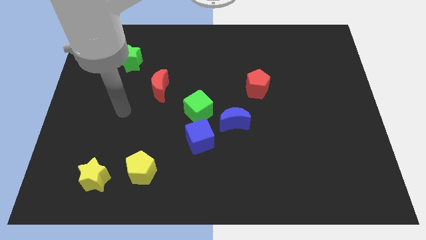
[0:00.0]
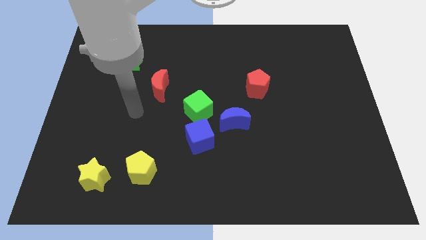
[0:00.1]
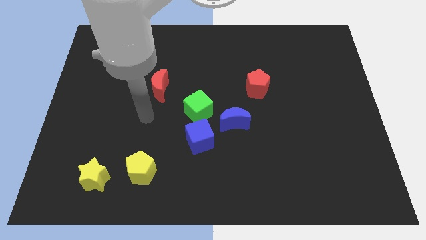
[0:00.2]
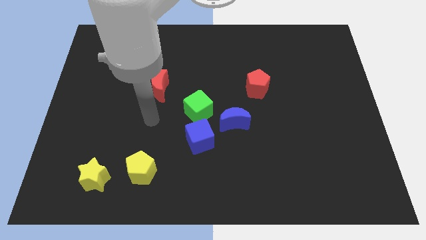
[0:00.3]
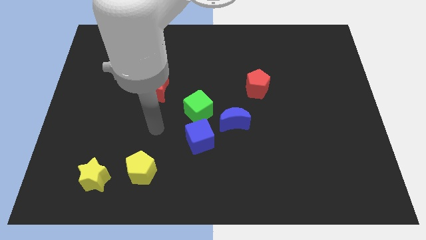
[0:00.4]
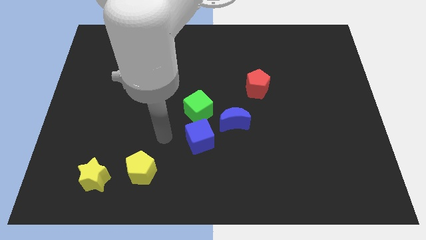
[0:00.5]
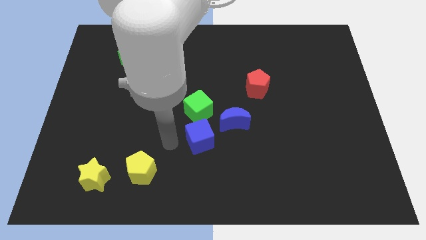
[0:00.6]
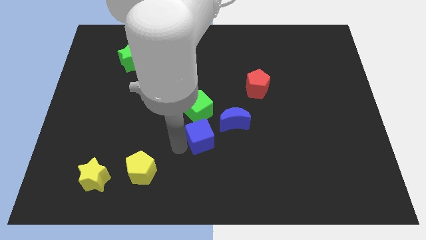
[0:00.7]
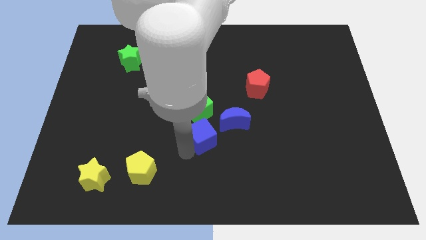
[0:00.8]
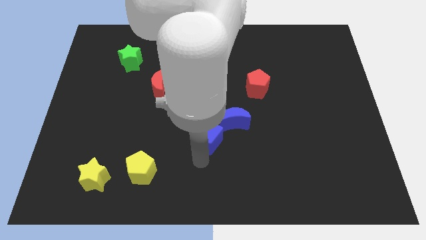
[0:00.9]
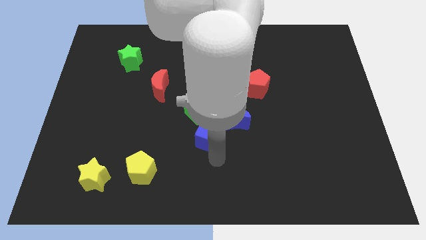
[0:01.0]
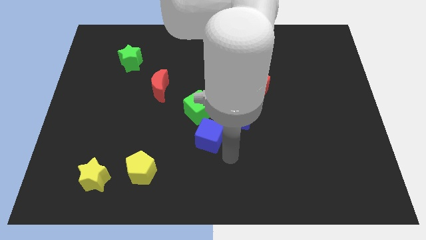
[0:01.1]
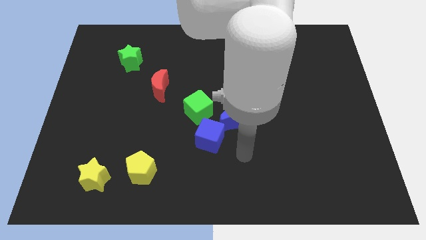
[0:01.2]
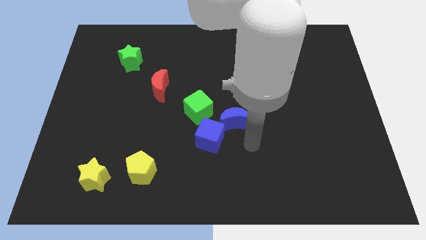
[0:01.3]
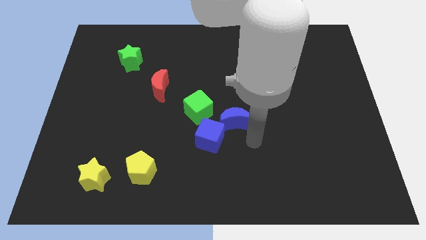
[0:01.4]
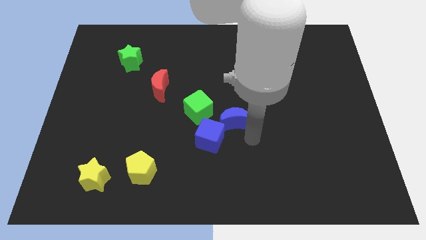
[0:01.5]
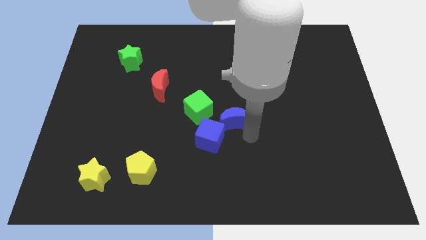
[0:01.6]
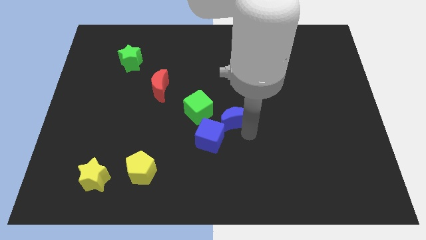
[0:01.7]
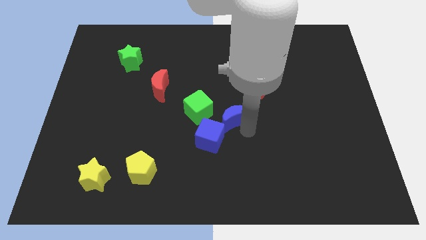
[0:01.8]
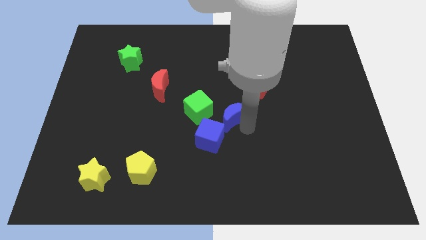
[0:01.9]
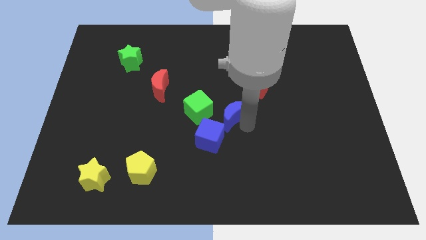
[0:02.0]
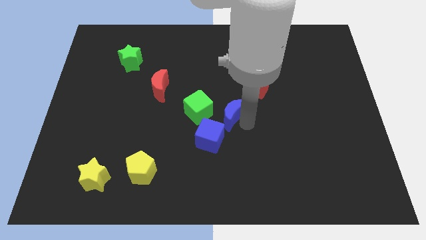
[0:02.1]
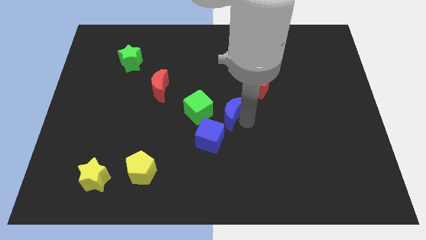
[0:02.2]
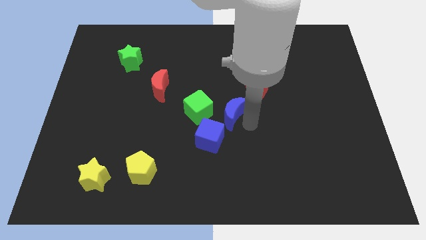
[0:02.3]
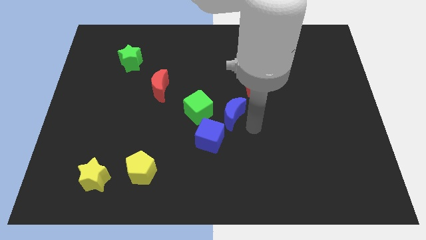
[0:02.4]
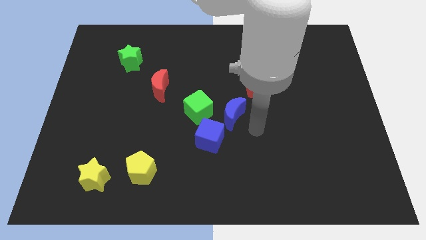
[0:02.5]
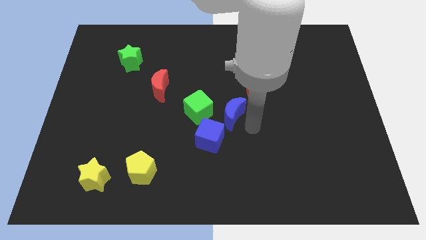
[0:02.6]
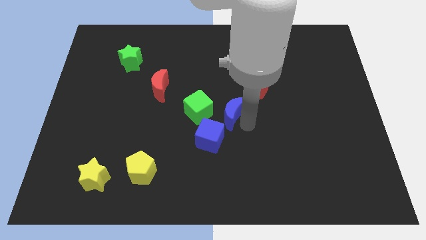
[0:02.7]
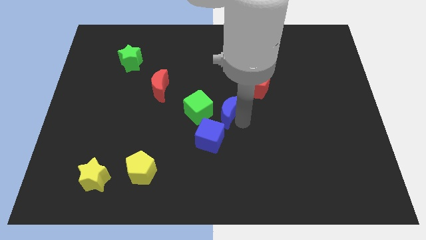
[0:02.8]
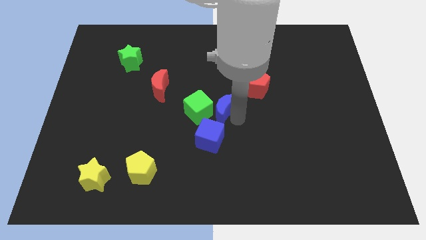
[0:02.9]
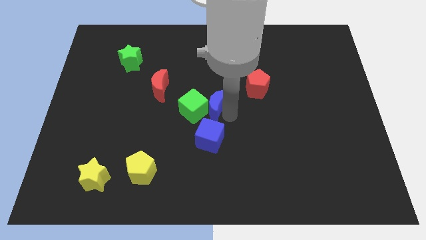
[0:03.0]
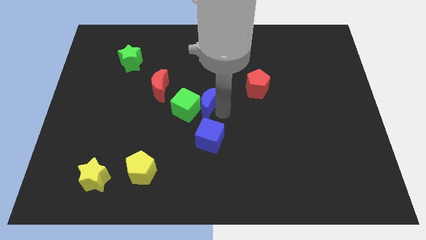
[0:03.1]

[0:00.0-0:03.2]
slide the blue moon upwards and then left a bit

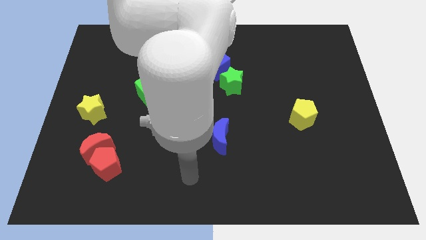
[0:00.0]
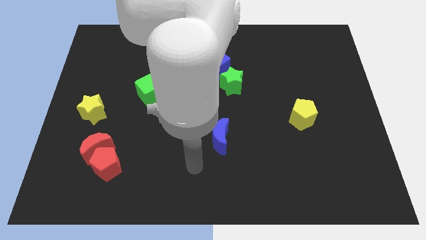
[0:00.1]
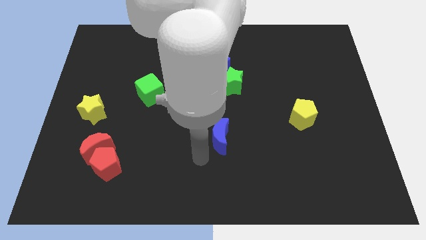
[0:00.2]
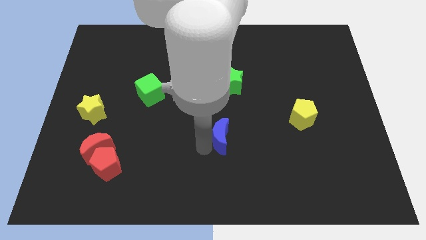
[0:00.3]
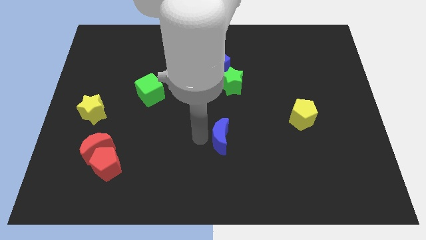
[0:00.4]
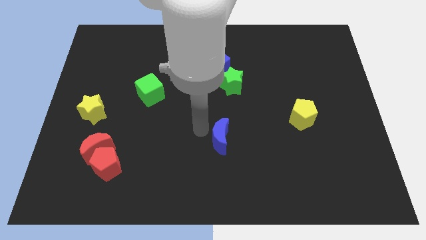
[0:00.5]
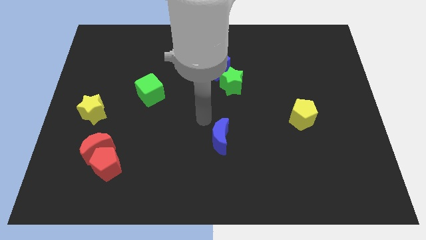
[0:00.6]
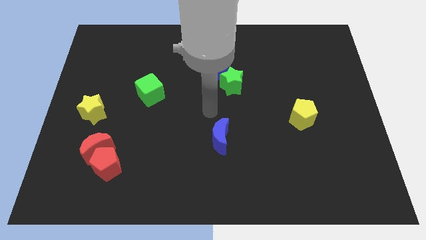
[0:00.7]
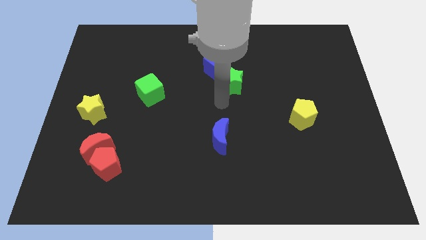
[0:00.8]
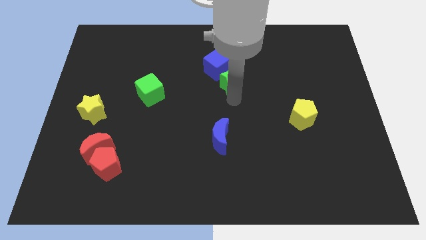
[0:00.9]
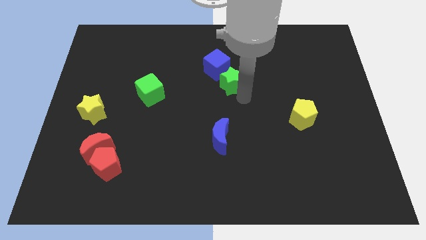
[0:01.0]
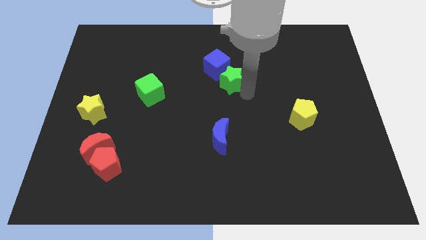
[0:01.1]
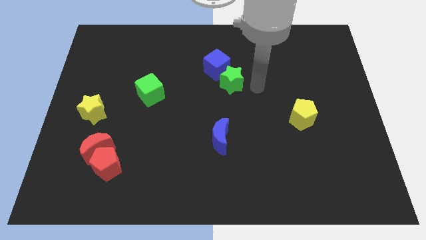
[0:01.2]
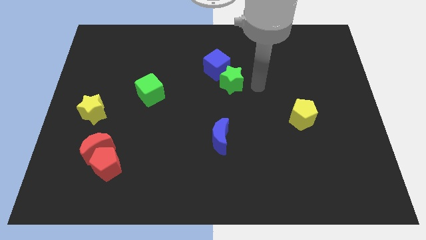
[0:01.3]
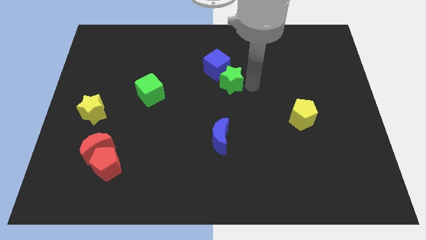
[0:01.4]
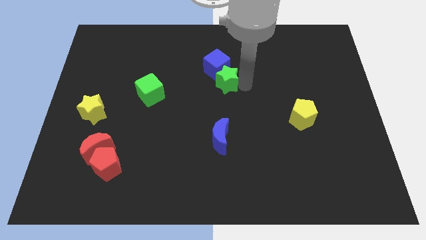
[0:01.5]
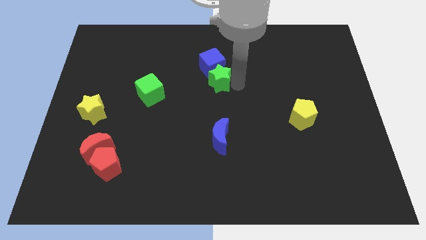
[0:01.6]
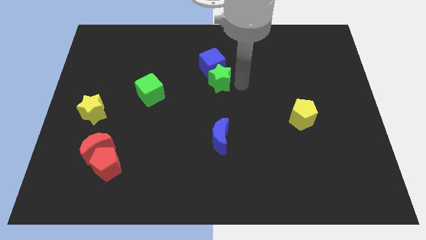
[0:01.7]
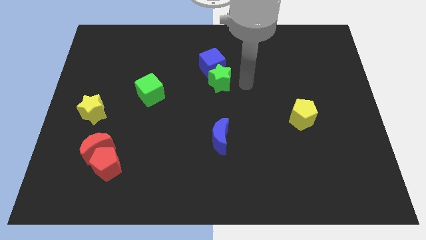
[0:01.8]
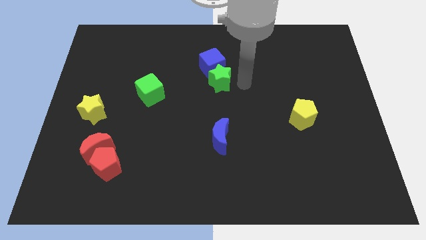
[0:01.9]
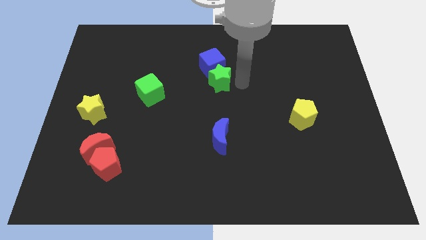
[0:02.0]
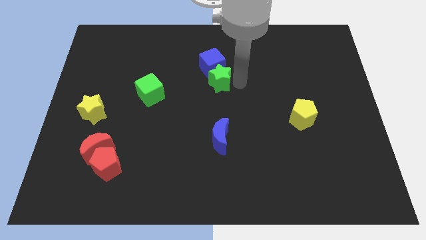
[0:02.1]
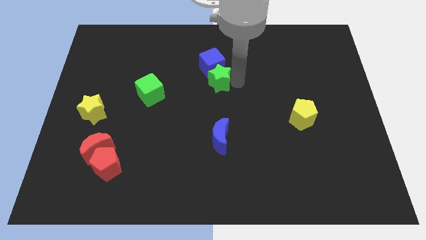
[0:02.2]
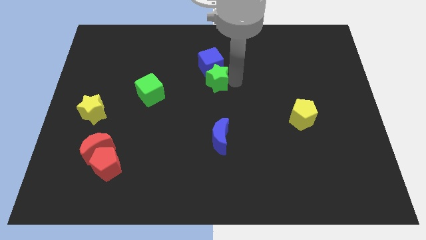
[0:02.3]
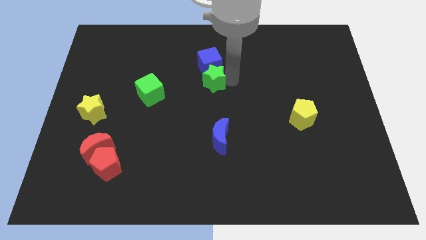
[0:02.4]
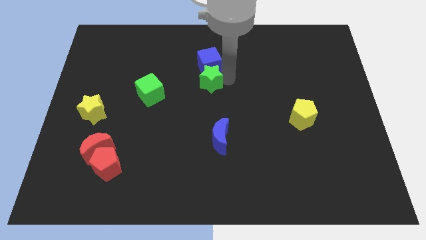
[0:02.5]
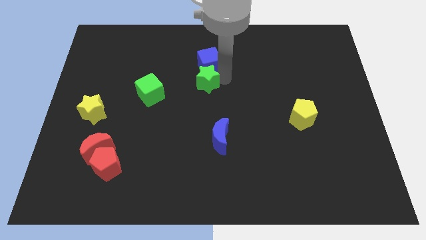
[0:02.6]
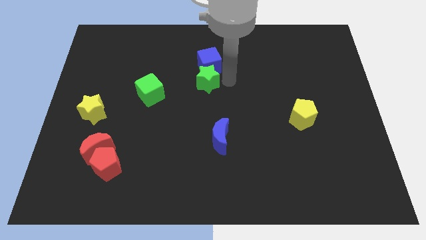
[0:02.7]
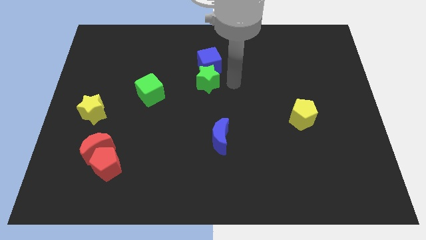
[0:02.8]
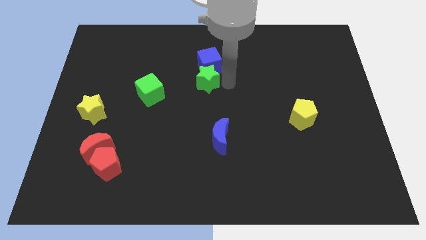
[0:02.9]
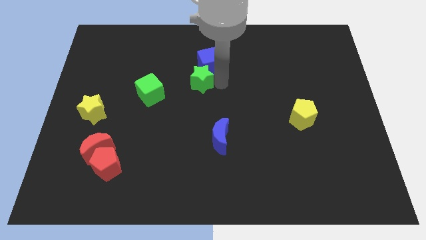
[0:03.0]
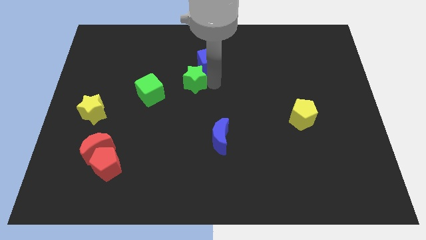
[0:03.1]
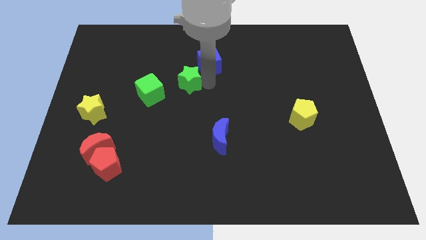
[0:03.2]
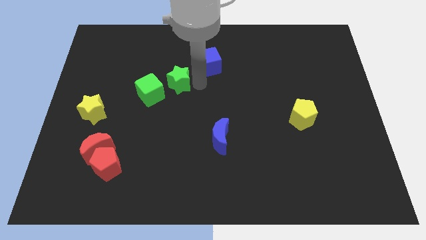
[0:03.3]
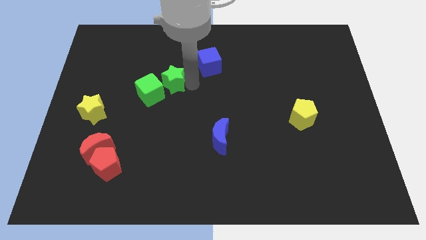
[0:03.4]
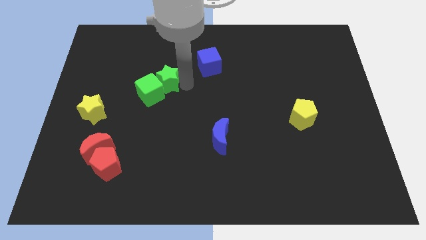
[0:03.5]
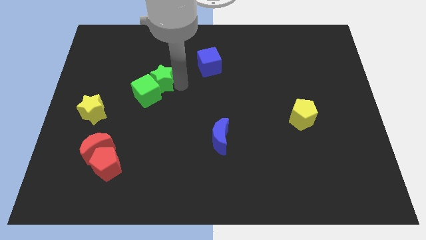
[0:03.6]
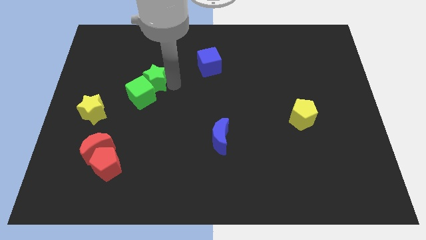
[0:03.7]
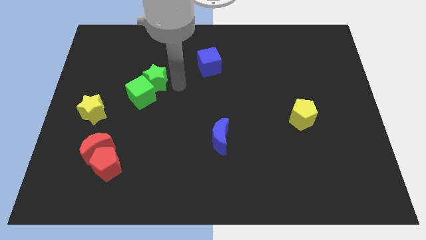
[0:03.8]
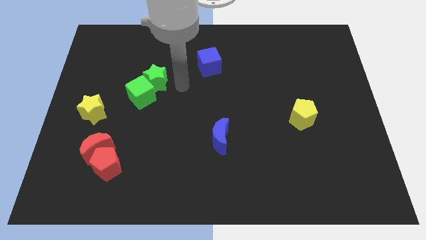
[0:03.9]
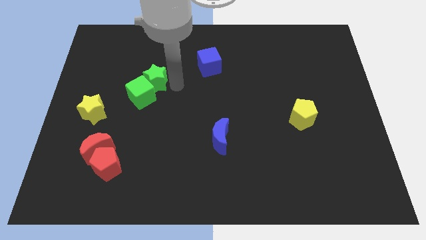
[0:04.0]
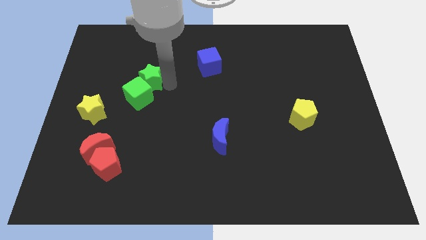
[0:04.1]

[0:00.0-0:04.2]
slide the green star left

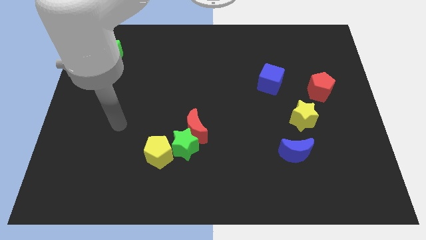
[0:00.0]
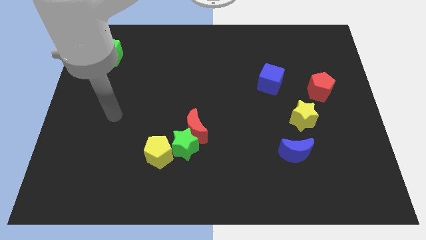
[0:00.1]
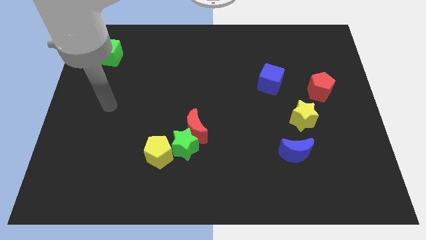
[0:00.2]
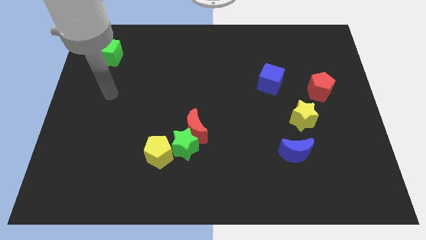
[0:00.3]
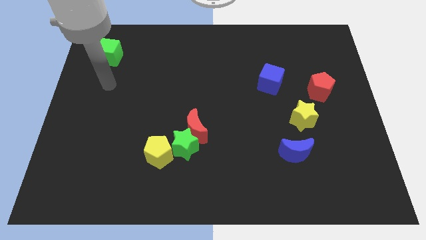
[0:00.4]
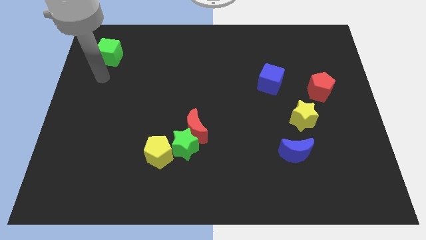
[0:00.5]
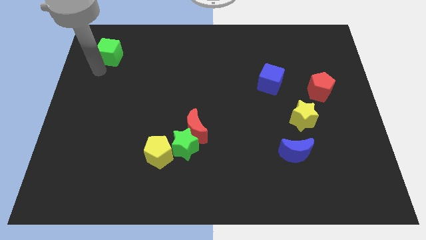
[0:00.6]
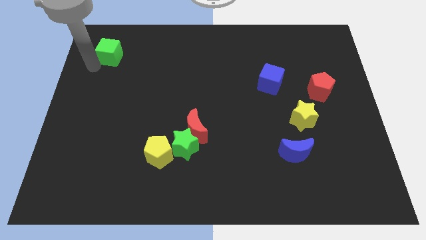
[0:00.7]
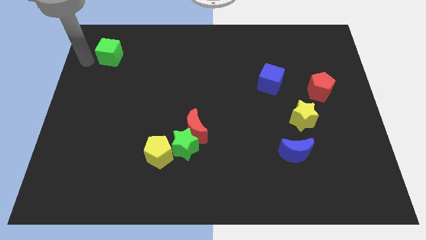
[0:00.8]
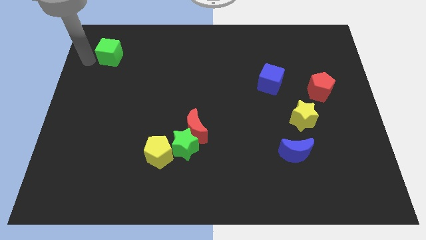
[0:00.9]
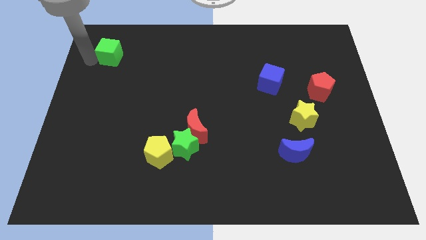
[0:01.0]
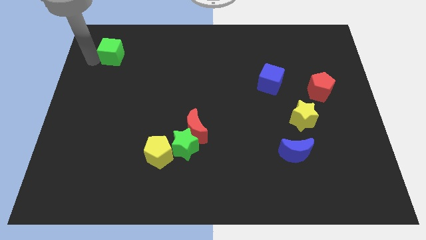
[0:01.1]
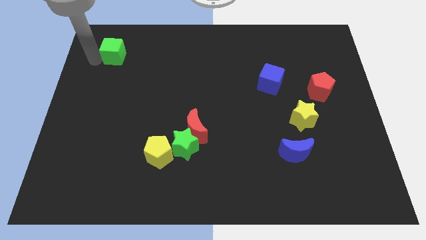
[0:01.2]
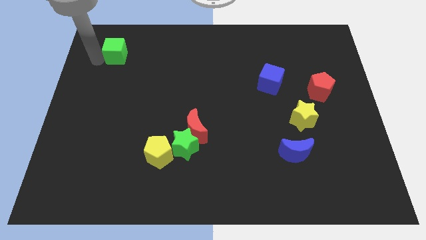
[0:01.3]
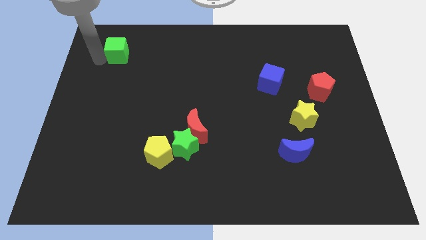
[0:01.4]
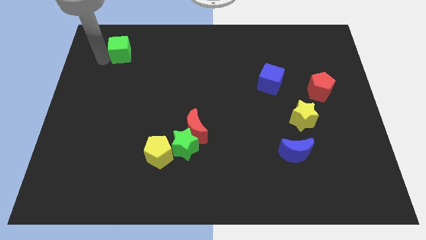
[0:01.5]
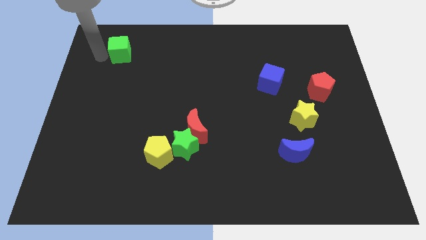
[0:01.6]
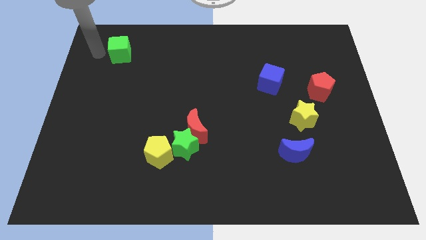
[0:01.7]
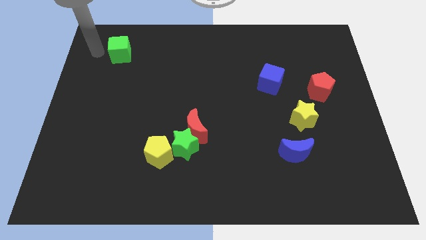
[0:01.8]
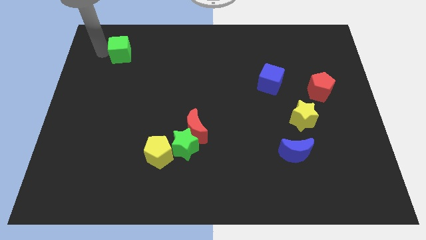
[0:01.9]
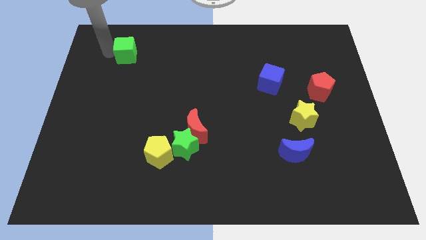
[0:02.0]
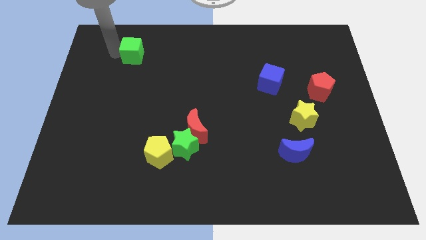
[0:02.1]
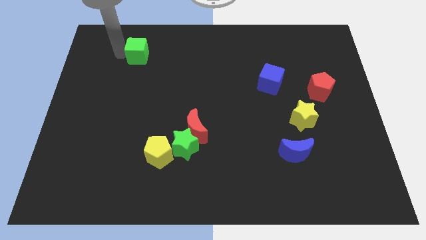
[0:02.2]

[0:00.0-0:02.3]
slightly move the green cube to the right
